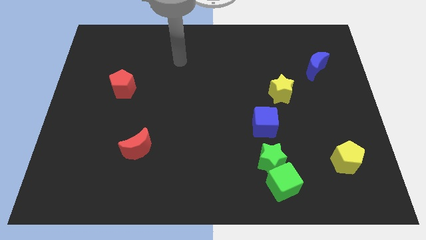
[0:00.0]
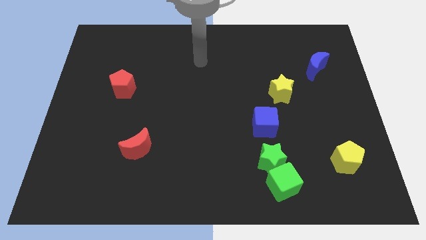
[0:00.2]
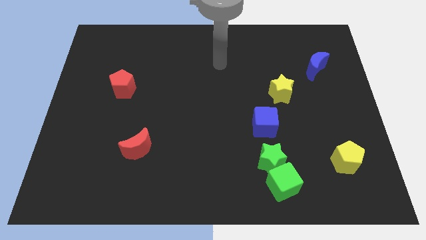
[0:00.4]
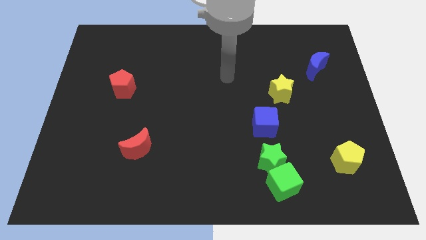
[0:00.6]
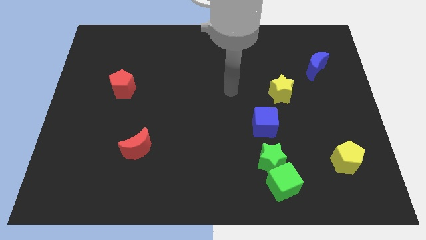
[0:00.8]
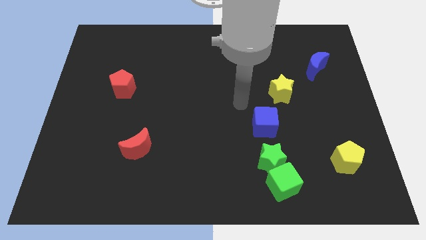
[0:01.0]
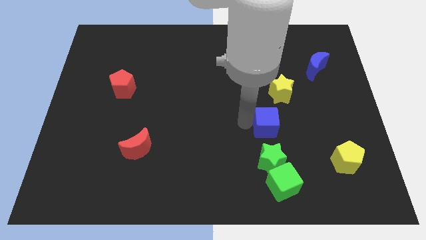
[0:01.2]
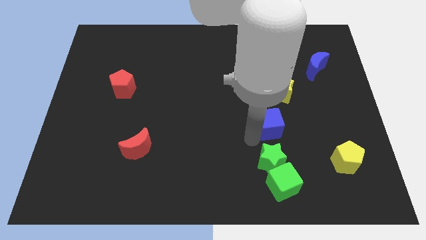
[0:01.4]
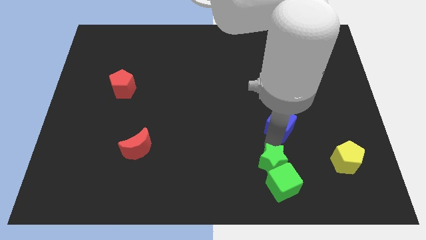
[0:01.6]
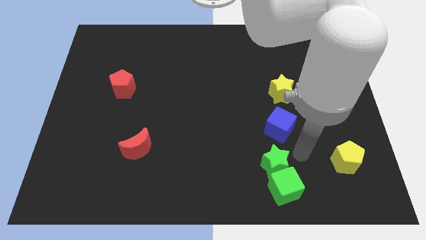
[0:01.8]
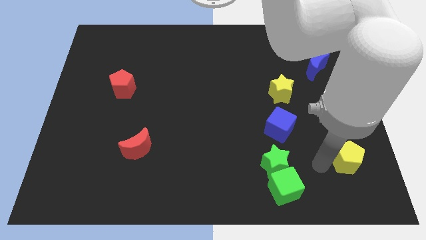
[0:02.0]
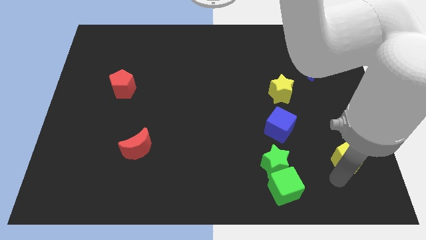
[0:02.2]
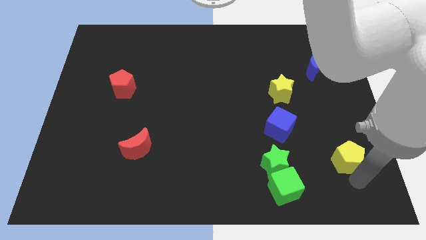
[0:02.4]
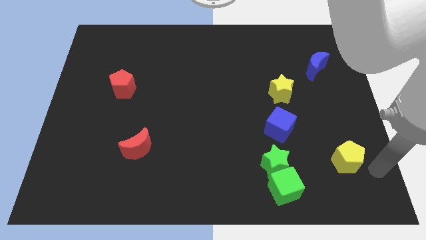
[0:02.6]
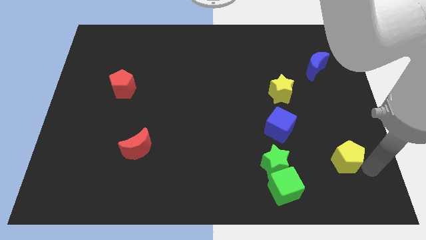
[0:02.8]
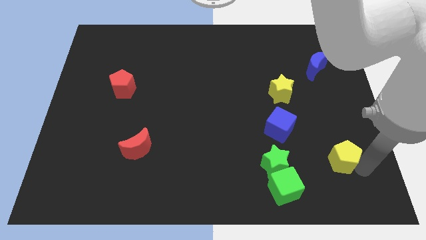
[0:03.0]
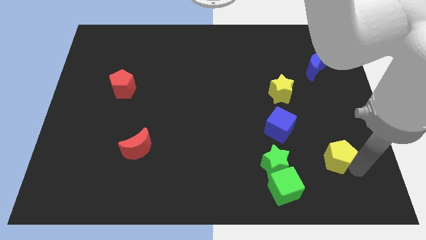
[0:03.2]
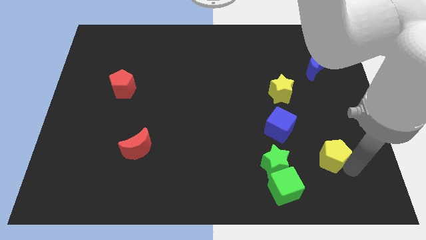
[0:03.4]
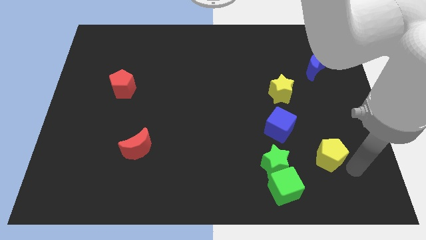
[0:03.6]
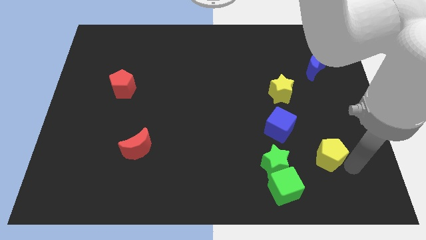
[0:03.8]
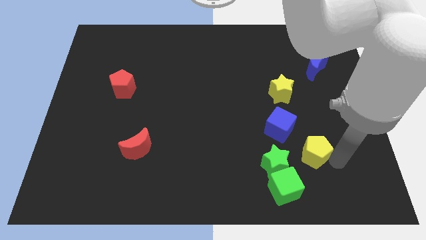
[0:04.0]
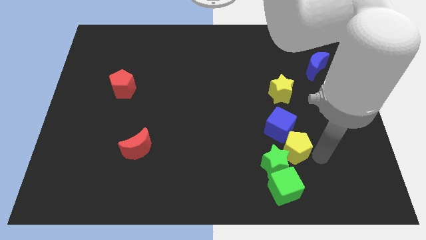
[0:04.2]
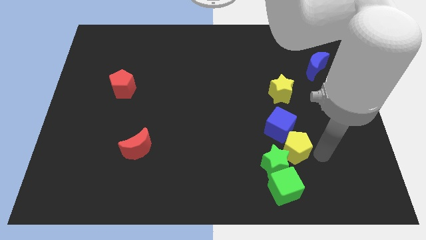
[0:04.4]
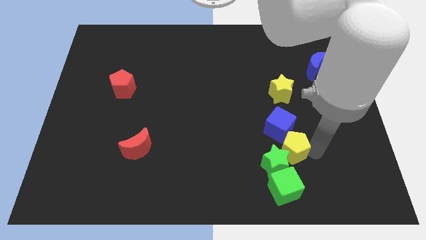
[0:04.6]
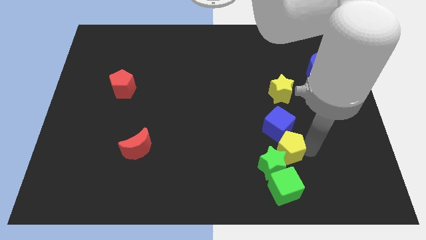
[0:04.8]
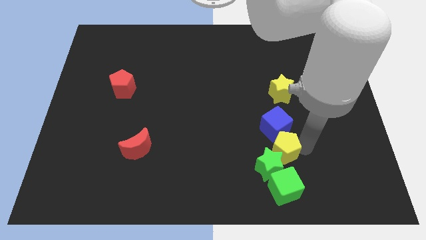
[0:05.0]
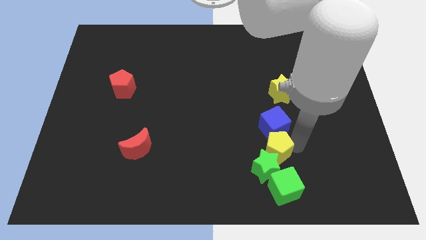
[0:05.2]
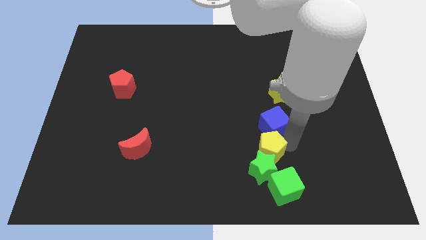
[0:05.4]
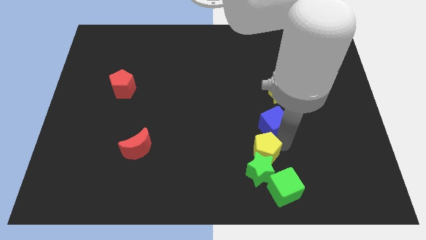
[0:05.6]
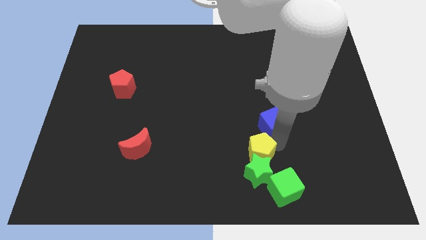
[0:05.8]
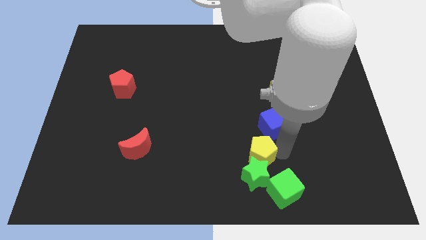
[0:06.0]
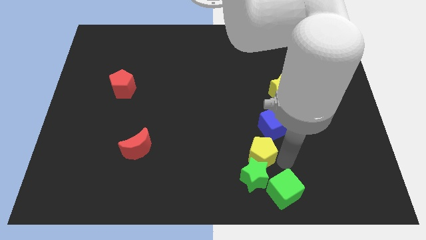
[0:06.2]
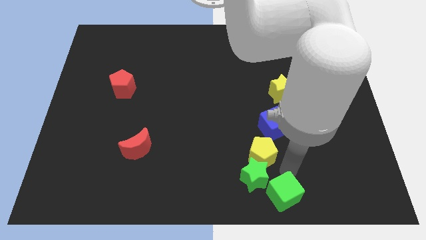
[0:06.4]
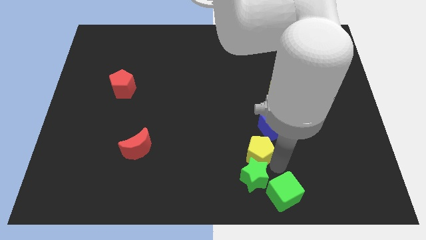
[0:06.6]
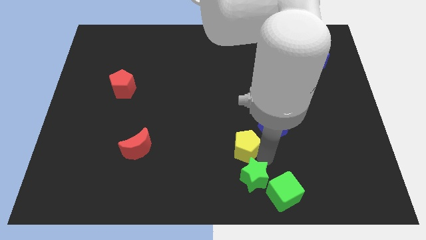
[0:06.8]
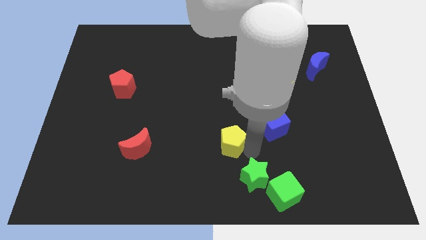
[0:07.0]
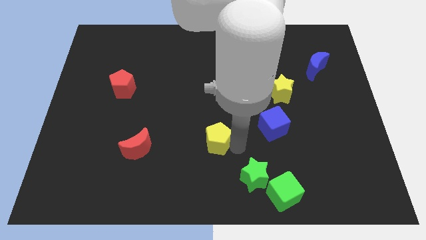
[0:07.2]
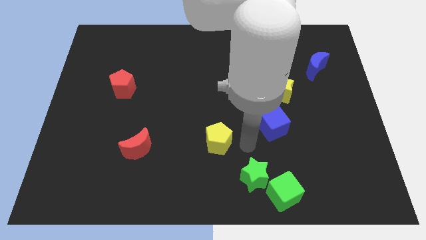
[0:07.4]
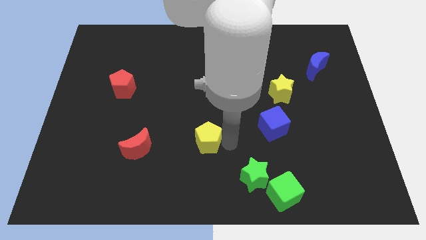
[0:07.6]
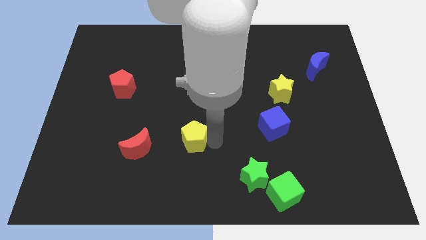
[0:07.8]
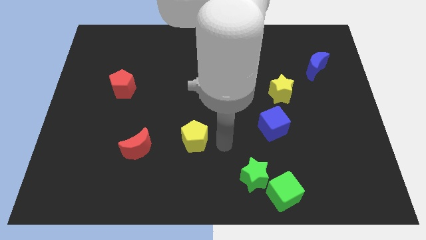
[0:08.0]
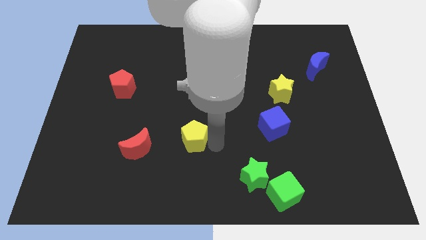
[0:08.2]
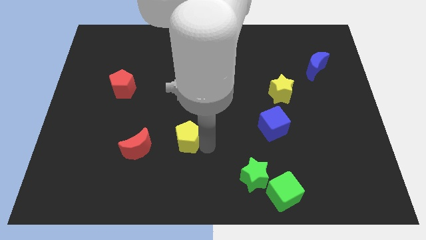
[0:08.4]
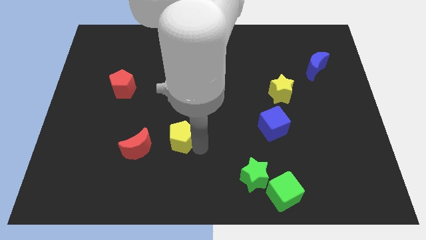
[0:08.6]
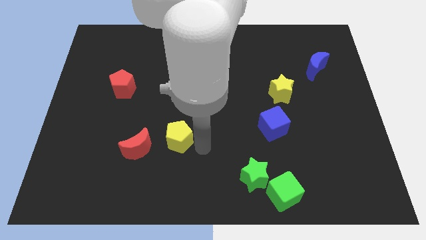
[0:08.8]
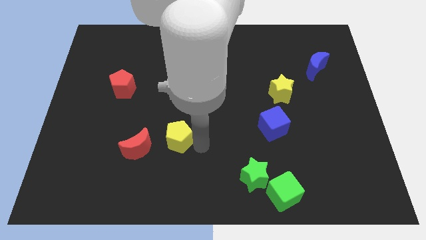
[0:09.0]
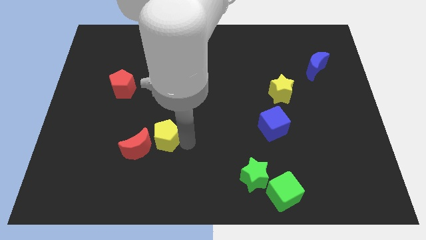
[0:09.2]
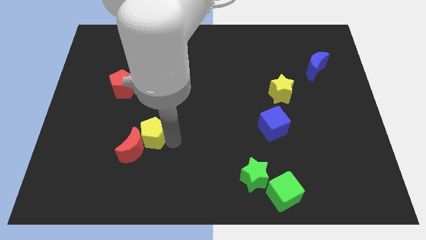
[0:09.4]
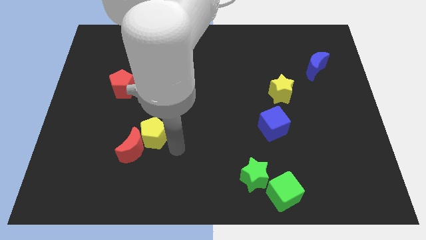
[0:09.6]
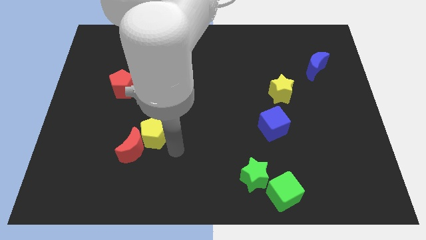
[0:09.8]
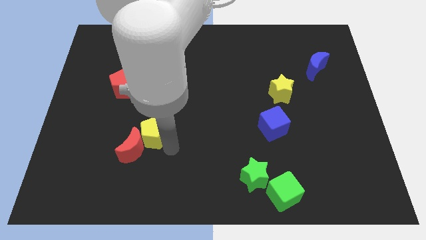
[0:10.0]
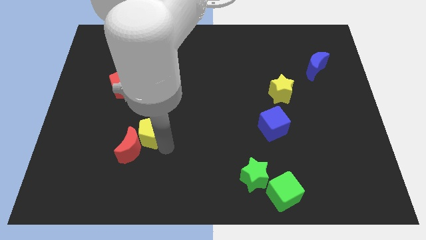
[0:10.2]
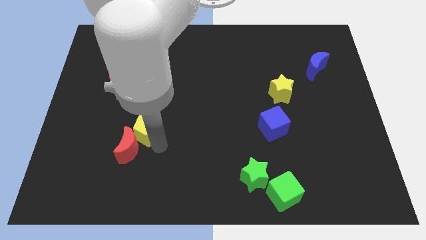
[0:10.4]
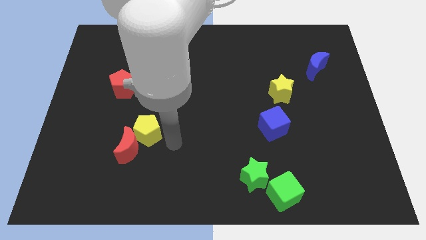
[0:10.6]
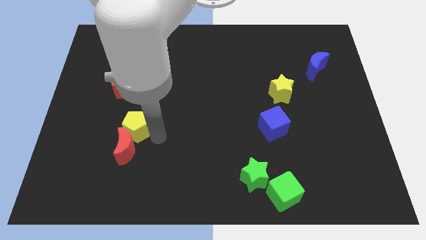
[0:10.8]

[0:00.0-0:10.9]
move the yellow pentagon below the red pentagon

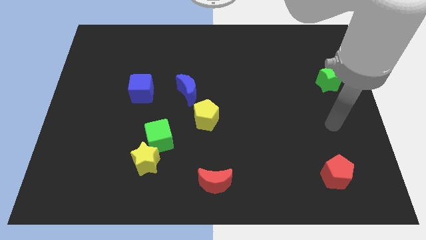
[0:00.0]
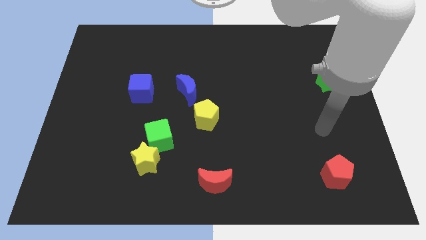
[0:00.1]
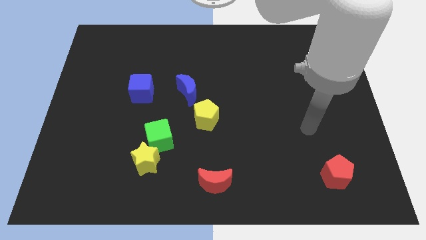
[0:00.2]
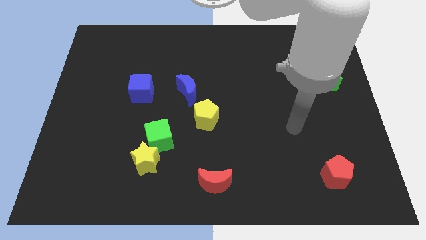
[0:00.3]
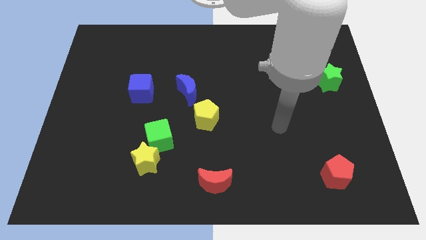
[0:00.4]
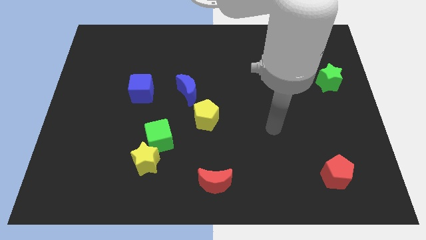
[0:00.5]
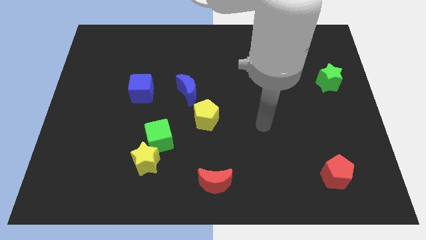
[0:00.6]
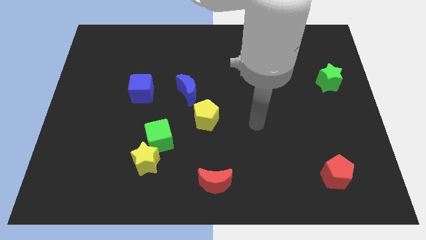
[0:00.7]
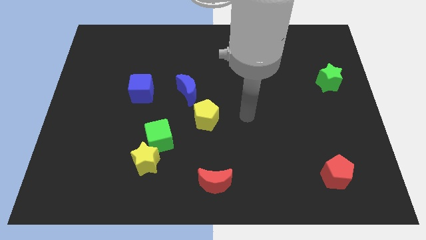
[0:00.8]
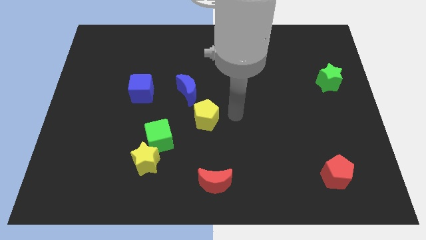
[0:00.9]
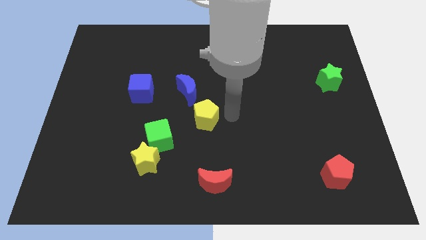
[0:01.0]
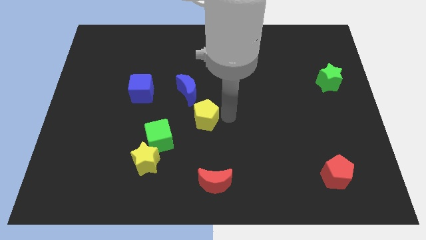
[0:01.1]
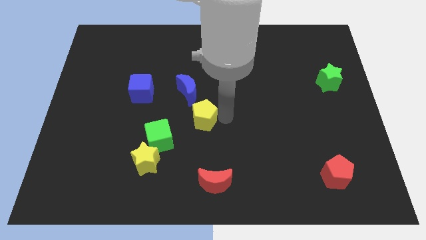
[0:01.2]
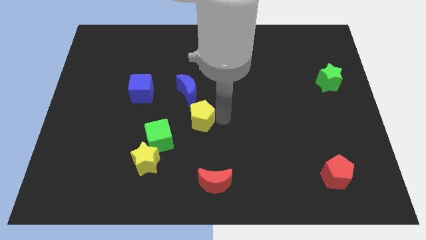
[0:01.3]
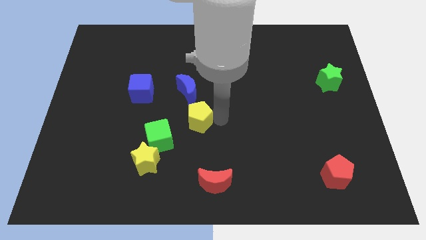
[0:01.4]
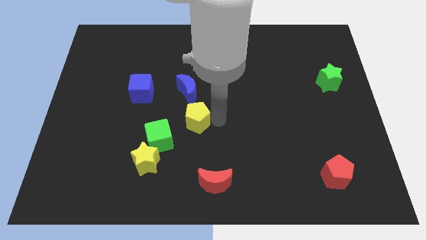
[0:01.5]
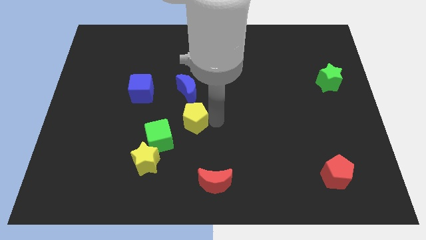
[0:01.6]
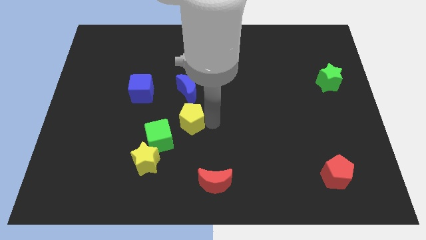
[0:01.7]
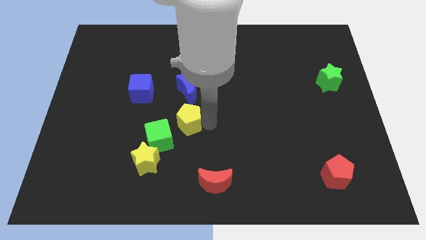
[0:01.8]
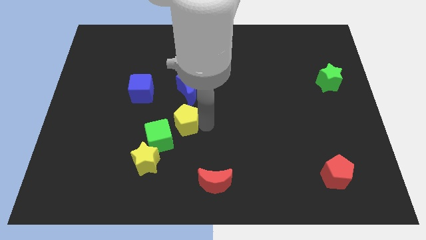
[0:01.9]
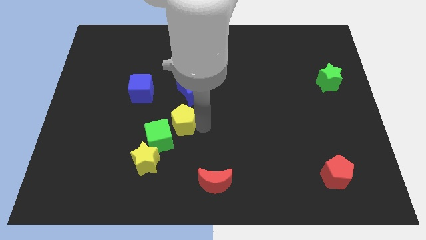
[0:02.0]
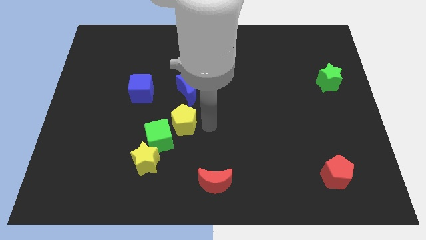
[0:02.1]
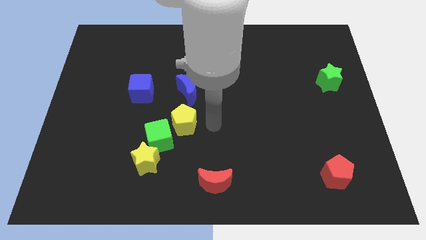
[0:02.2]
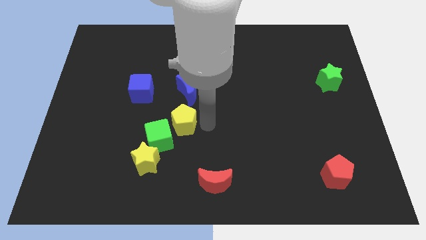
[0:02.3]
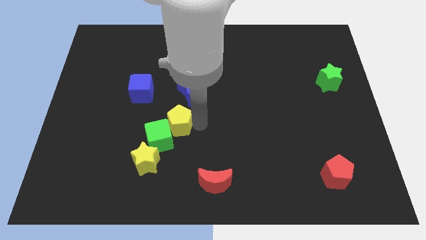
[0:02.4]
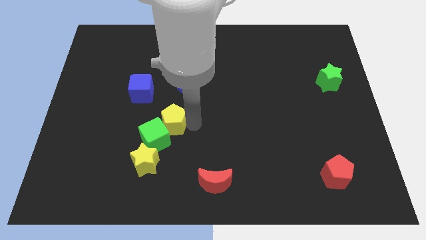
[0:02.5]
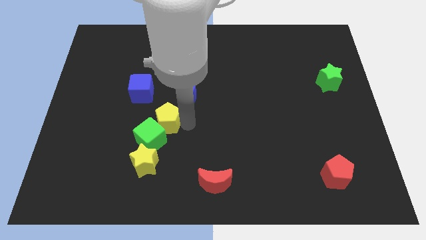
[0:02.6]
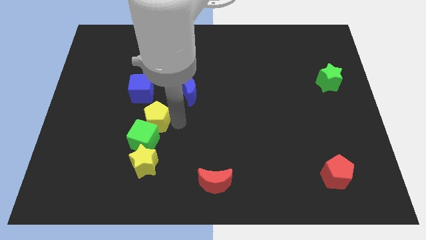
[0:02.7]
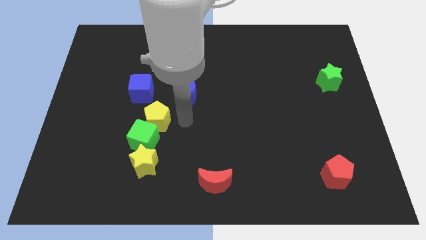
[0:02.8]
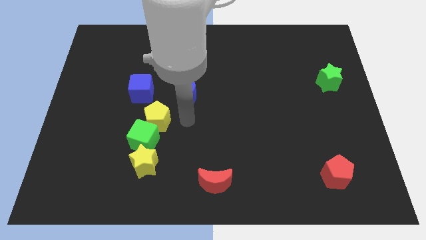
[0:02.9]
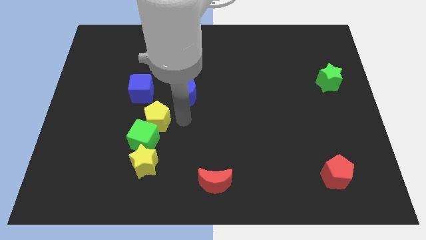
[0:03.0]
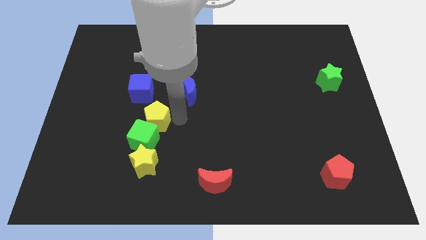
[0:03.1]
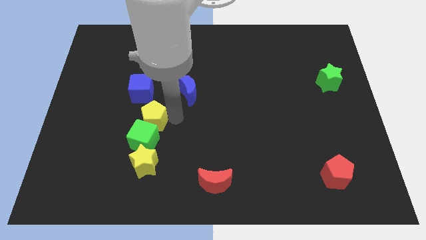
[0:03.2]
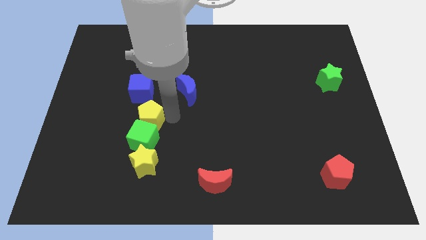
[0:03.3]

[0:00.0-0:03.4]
push the yellow pentagon to the top left side of the green cube
